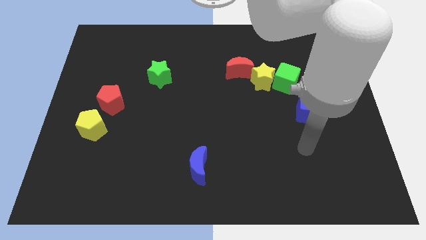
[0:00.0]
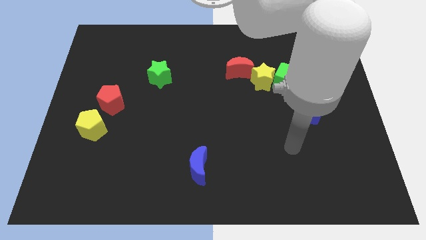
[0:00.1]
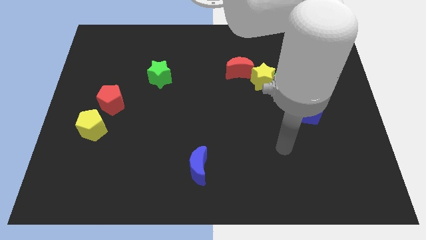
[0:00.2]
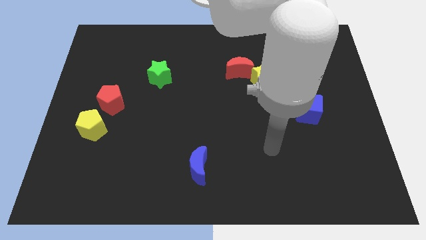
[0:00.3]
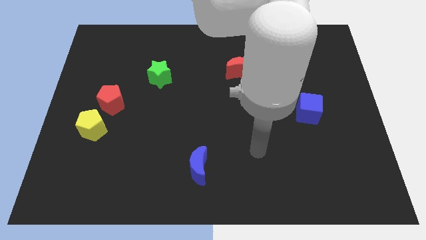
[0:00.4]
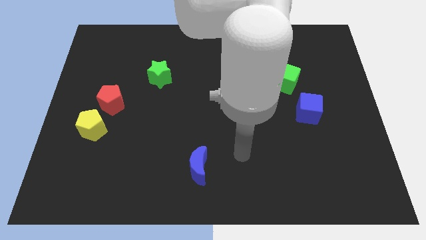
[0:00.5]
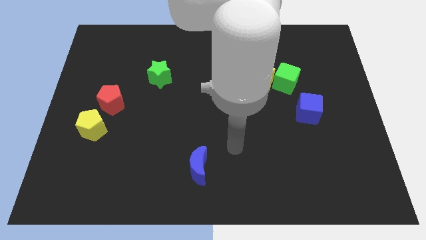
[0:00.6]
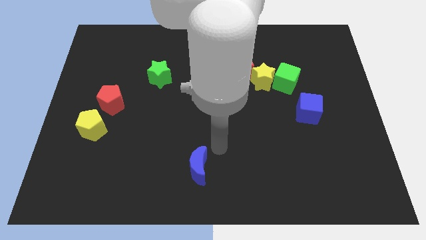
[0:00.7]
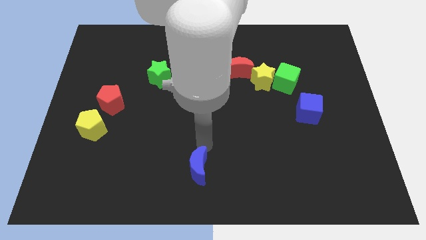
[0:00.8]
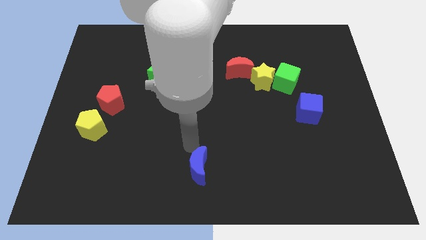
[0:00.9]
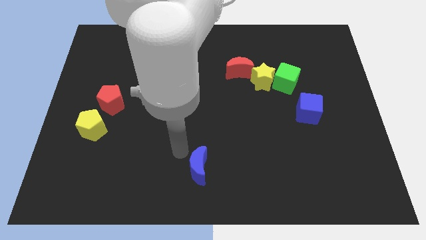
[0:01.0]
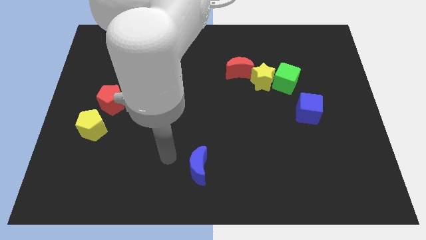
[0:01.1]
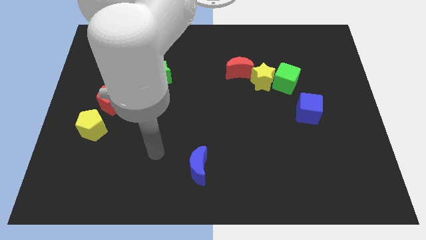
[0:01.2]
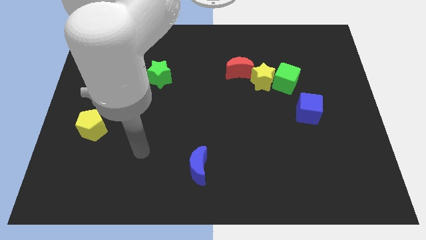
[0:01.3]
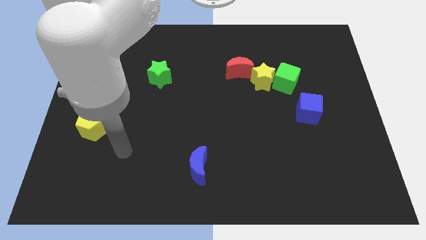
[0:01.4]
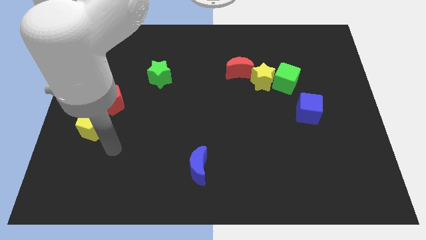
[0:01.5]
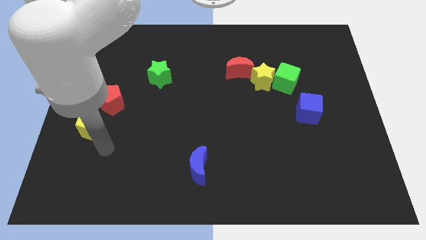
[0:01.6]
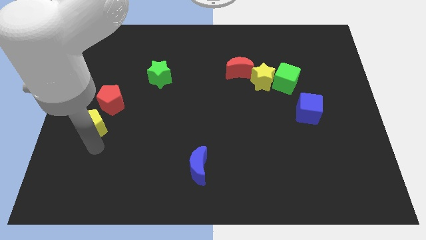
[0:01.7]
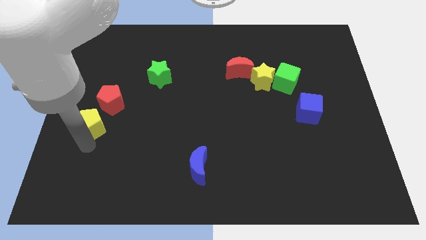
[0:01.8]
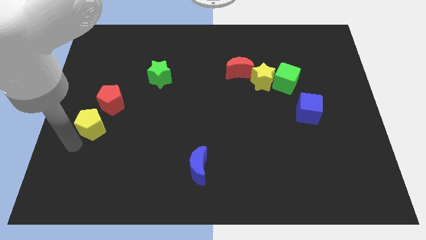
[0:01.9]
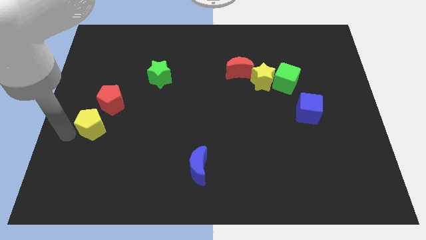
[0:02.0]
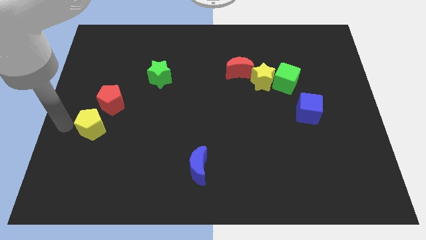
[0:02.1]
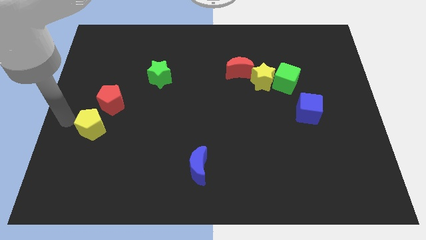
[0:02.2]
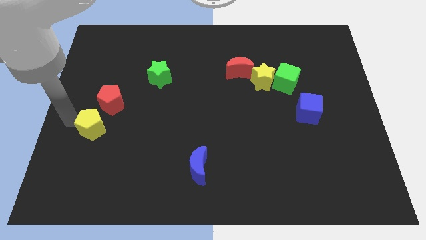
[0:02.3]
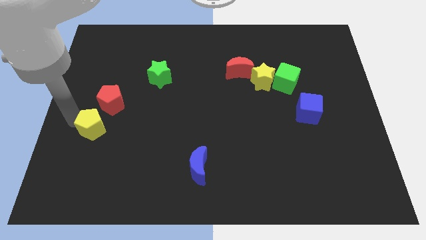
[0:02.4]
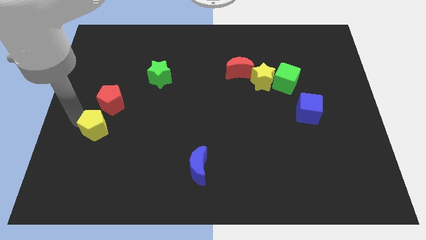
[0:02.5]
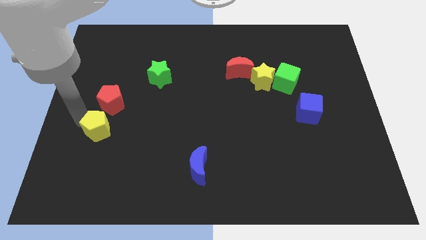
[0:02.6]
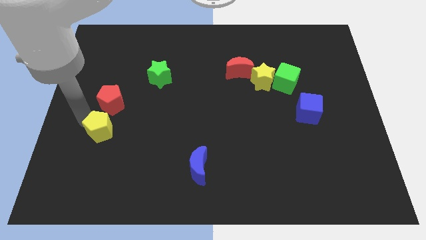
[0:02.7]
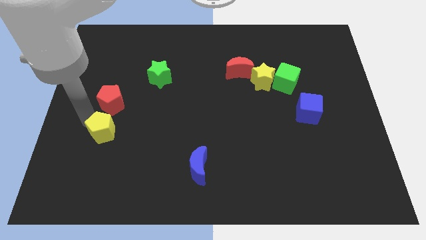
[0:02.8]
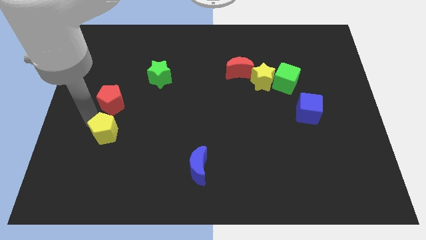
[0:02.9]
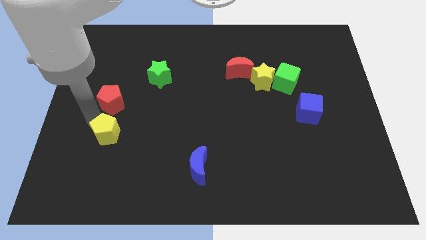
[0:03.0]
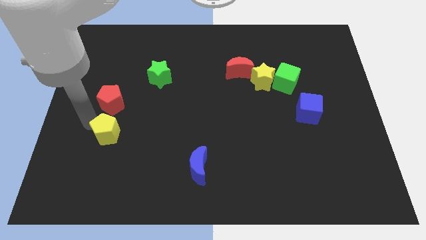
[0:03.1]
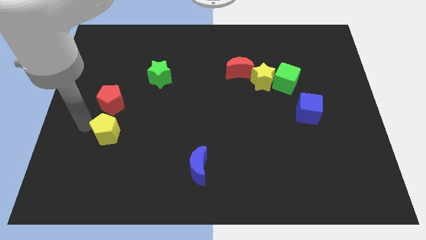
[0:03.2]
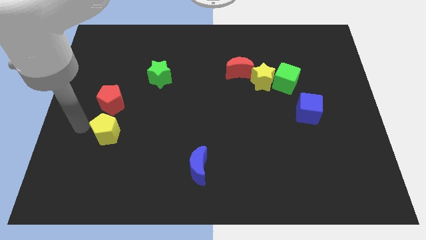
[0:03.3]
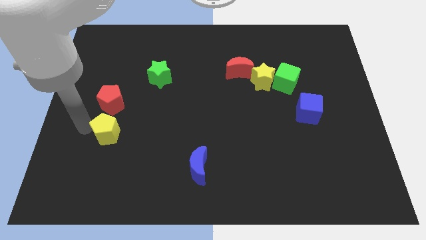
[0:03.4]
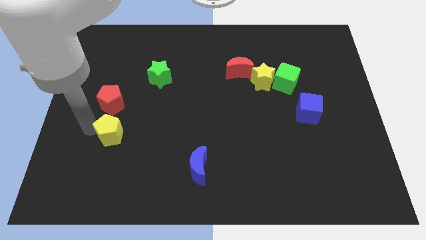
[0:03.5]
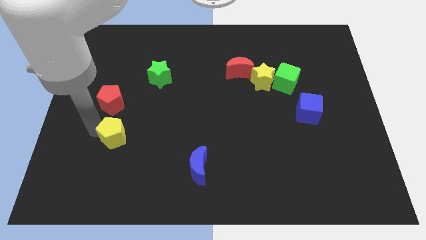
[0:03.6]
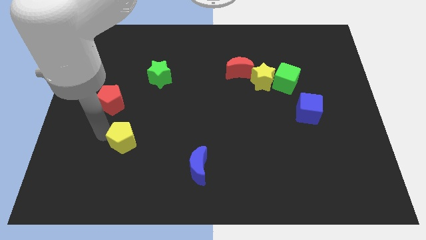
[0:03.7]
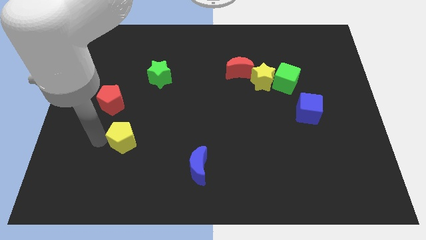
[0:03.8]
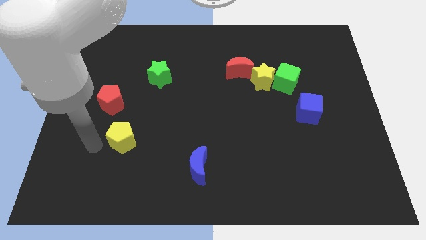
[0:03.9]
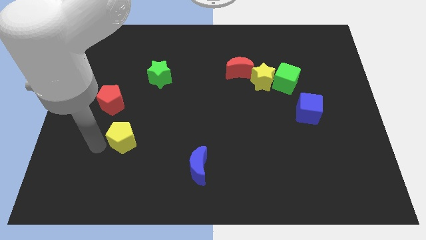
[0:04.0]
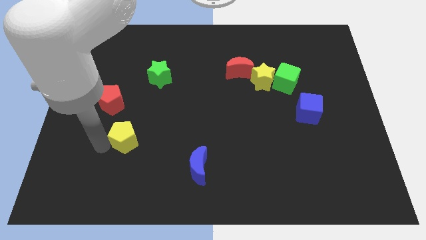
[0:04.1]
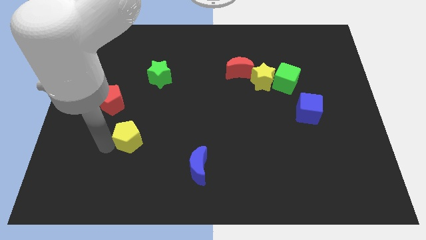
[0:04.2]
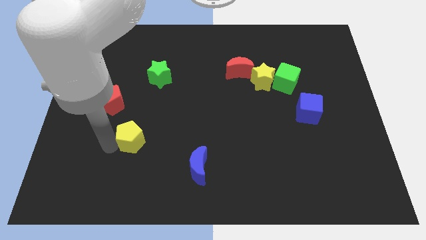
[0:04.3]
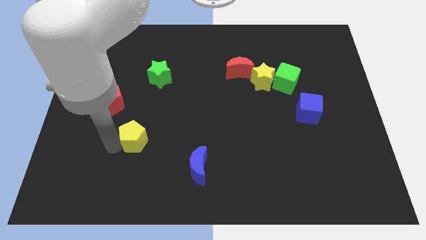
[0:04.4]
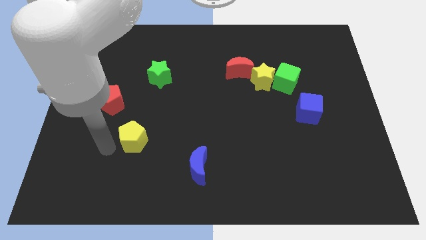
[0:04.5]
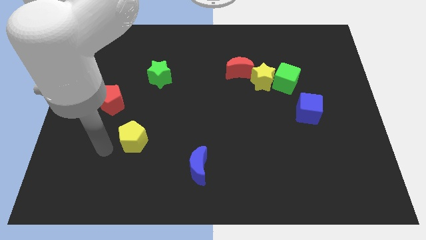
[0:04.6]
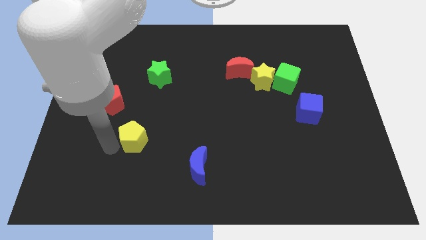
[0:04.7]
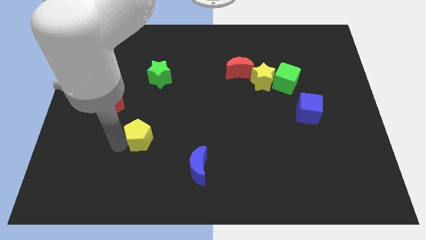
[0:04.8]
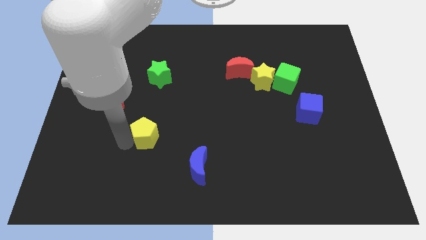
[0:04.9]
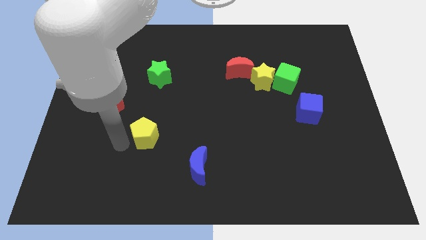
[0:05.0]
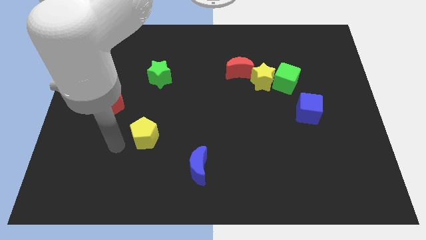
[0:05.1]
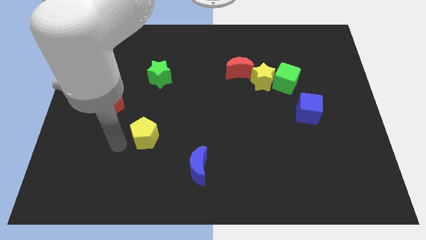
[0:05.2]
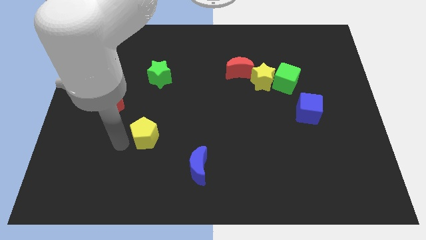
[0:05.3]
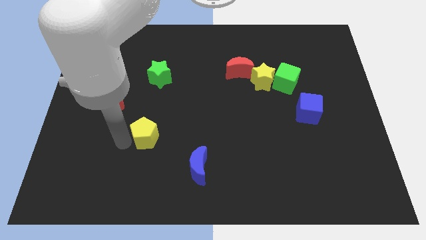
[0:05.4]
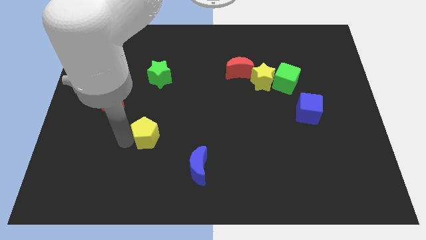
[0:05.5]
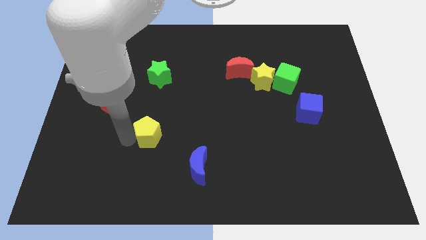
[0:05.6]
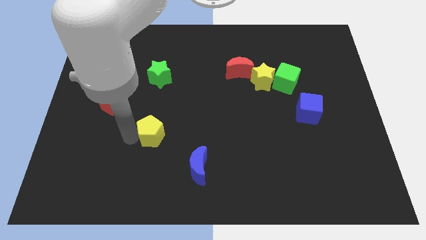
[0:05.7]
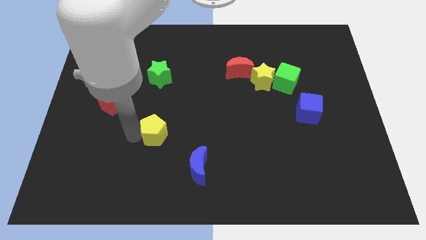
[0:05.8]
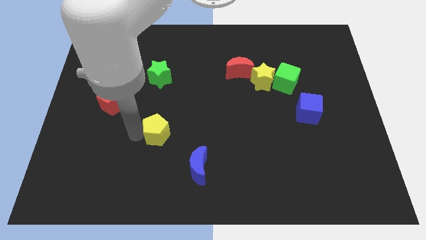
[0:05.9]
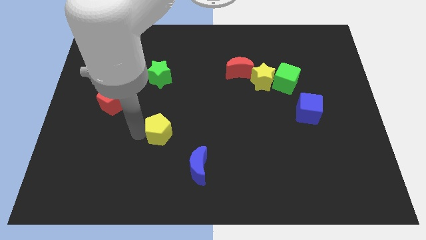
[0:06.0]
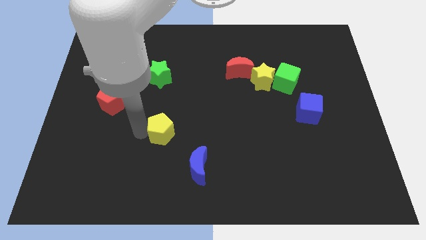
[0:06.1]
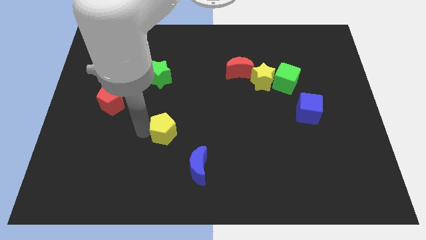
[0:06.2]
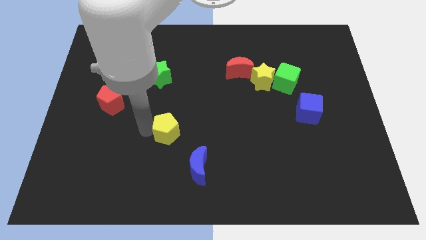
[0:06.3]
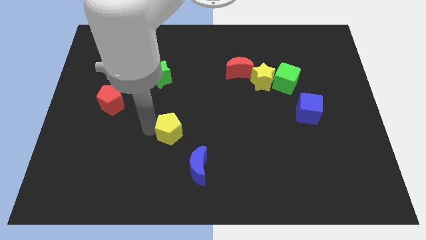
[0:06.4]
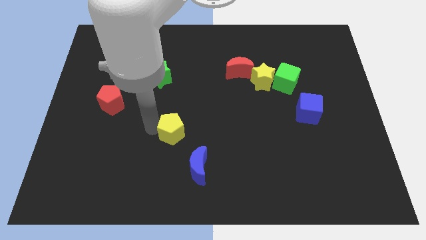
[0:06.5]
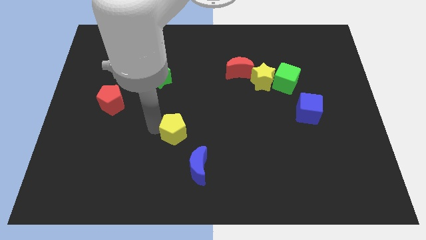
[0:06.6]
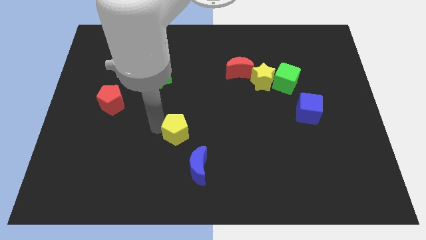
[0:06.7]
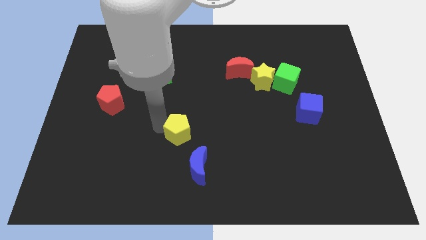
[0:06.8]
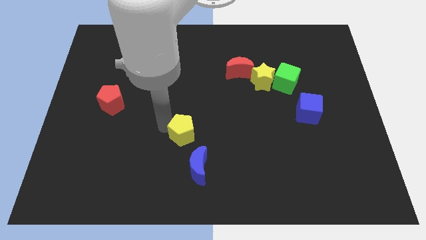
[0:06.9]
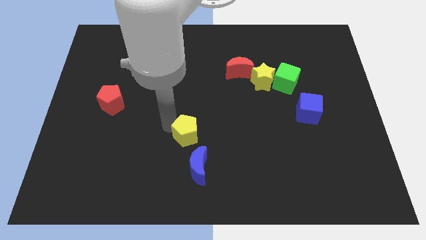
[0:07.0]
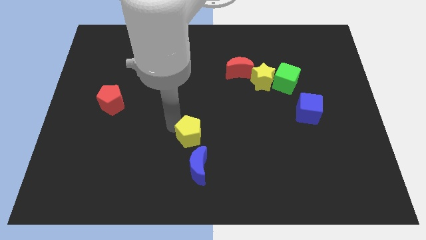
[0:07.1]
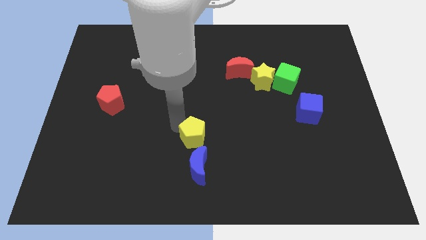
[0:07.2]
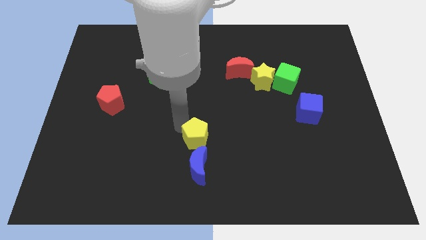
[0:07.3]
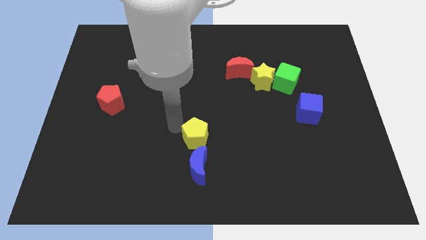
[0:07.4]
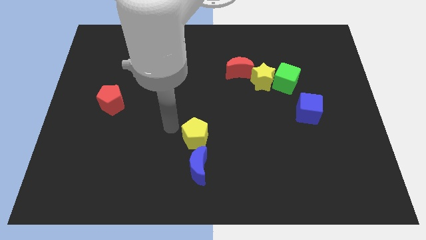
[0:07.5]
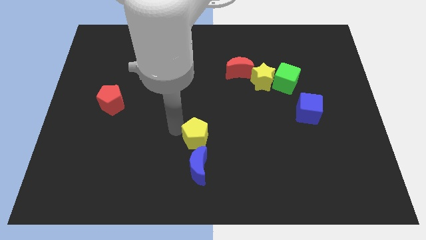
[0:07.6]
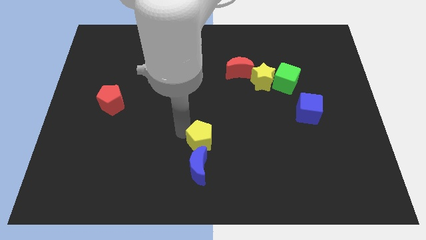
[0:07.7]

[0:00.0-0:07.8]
push the yellow pentagon to the top right side of the blue moon
